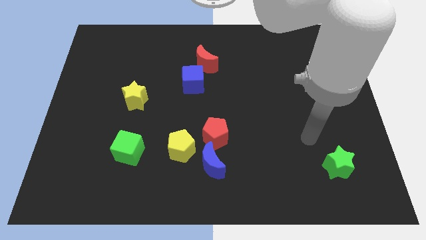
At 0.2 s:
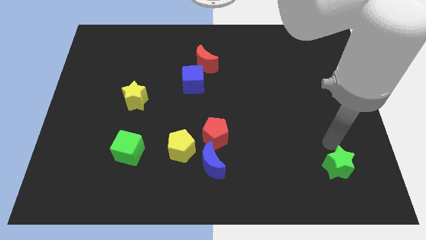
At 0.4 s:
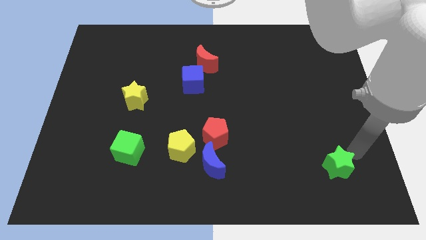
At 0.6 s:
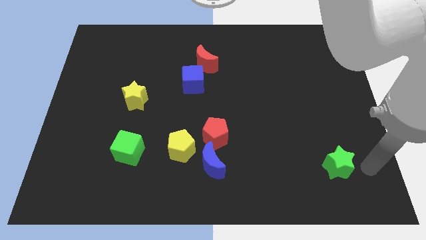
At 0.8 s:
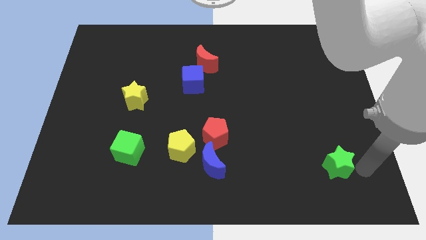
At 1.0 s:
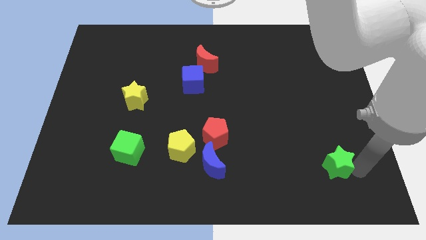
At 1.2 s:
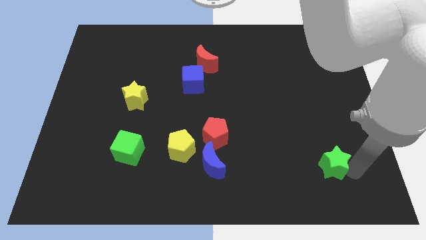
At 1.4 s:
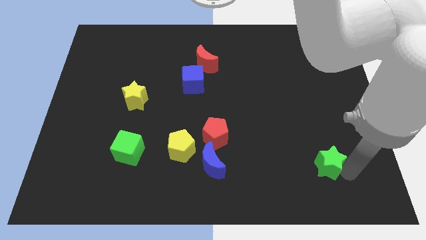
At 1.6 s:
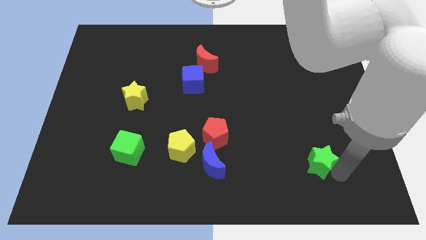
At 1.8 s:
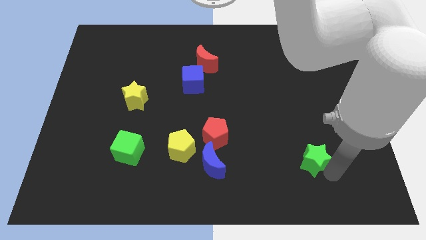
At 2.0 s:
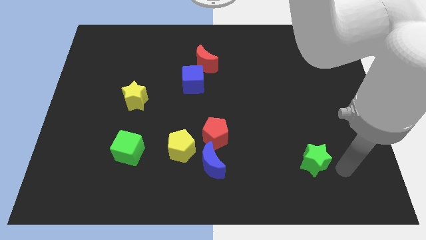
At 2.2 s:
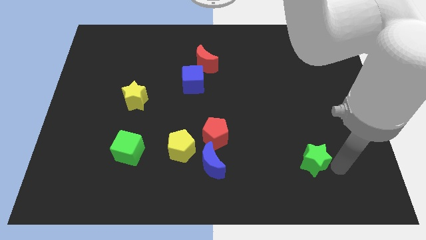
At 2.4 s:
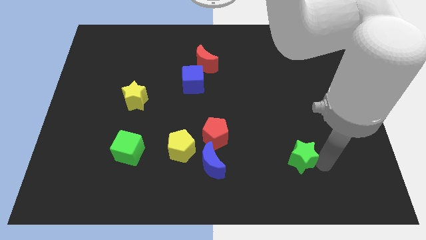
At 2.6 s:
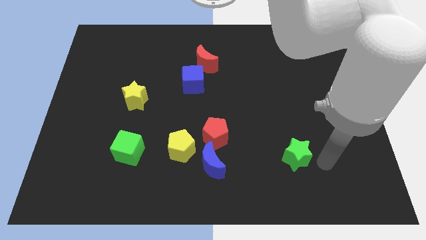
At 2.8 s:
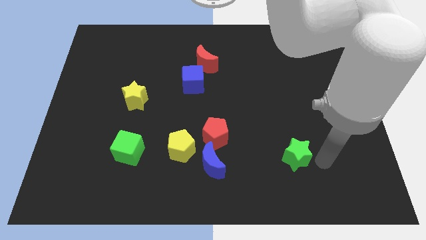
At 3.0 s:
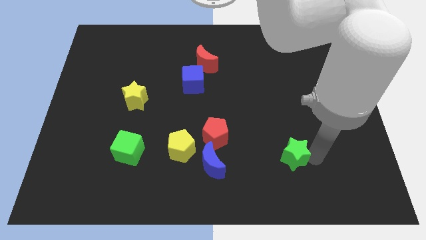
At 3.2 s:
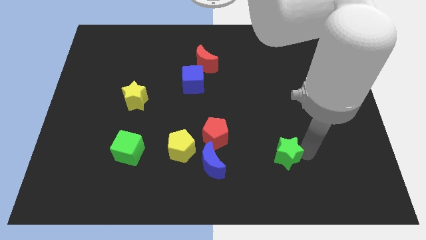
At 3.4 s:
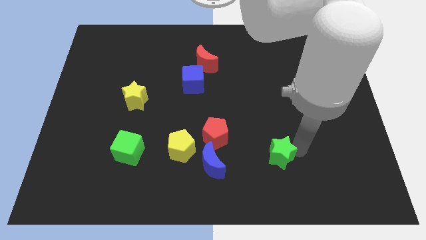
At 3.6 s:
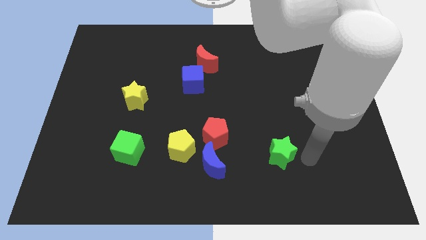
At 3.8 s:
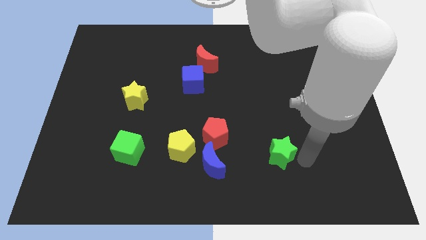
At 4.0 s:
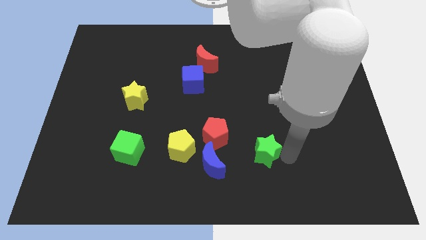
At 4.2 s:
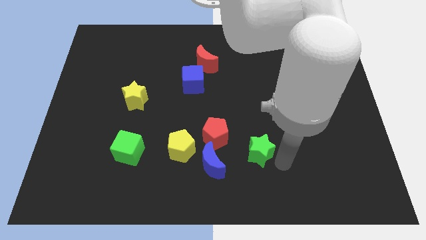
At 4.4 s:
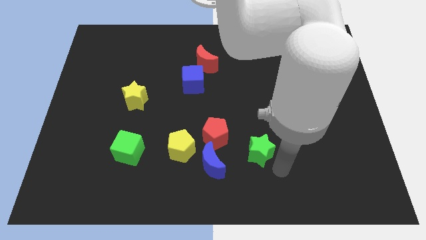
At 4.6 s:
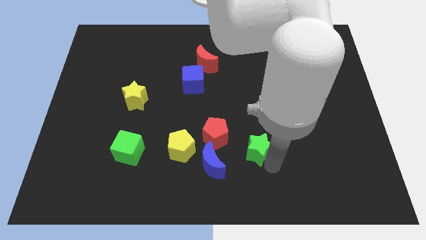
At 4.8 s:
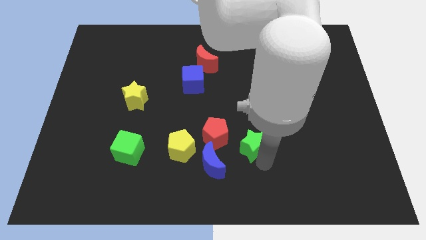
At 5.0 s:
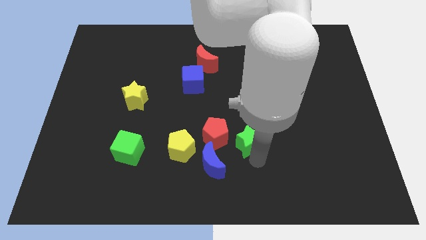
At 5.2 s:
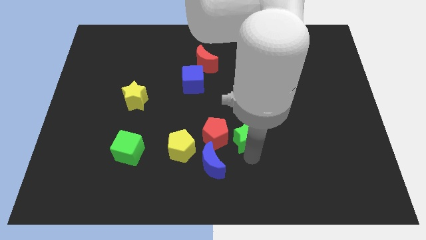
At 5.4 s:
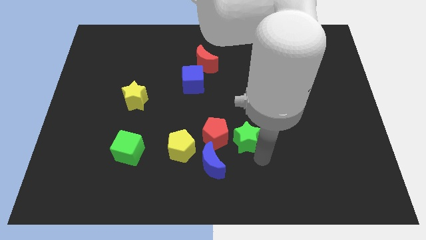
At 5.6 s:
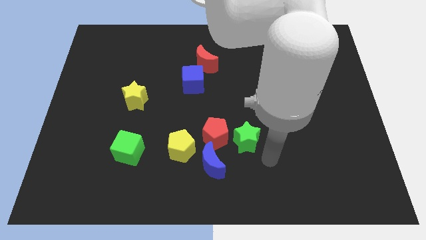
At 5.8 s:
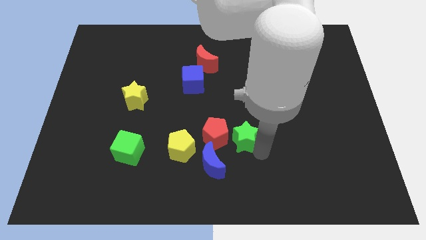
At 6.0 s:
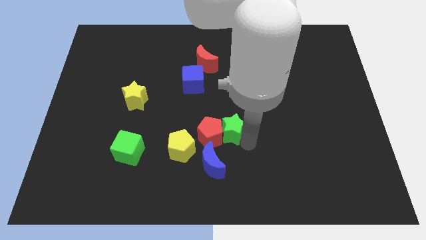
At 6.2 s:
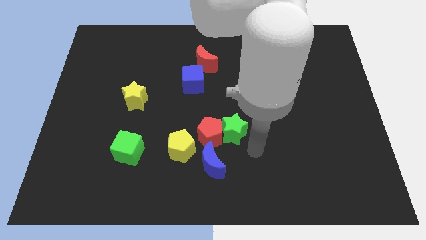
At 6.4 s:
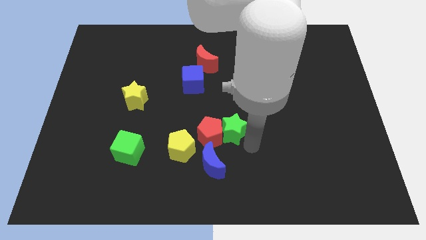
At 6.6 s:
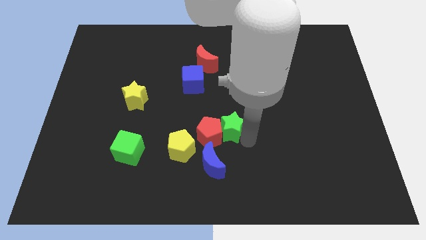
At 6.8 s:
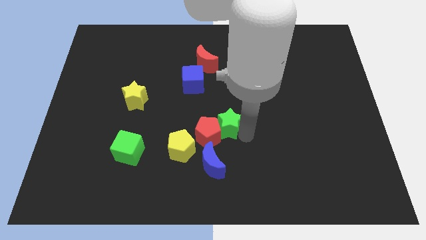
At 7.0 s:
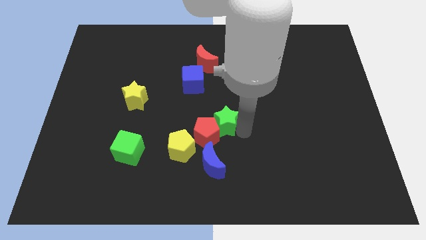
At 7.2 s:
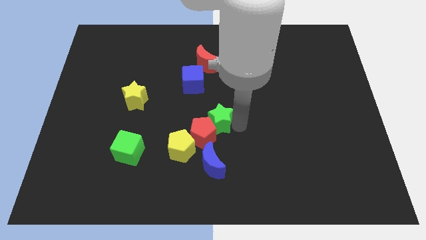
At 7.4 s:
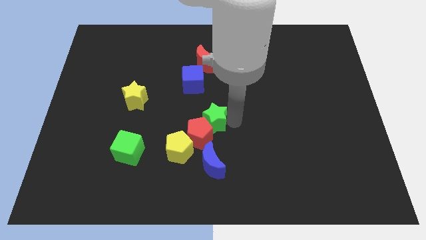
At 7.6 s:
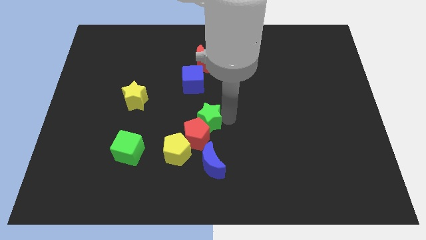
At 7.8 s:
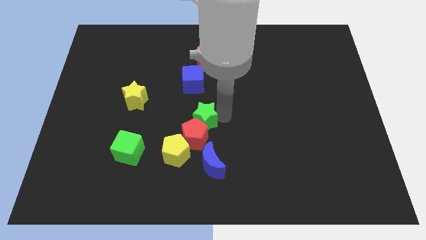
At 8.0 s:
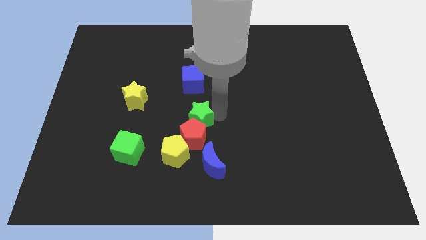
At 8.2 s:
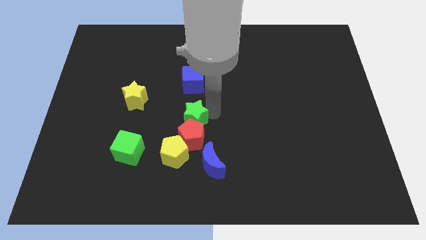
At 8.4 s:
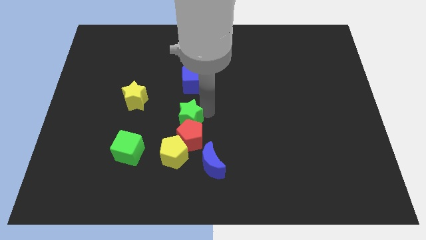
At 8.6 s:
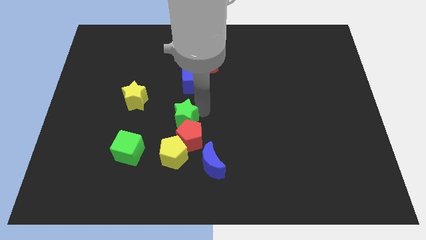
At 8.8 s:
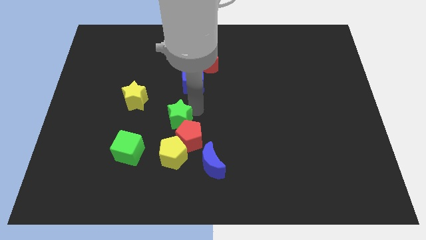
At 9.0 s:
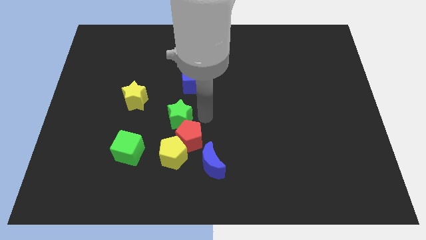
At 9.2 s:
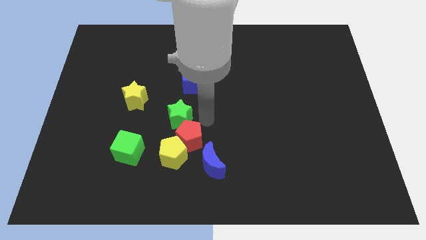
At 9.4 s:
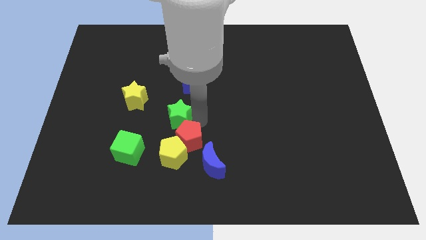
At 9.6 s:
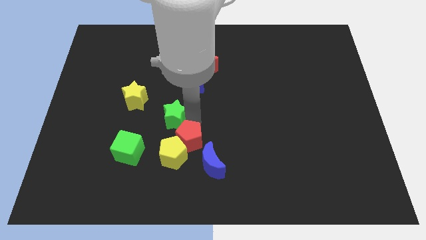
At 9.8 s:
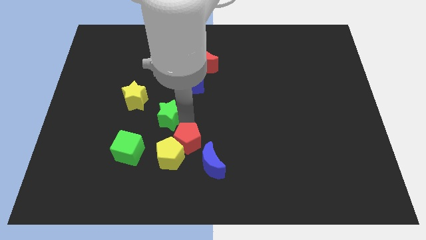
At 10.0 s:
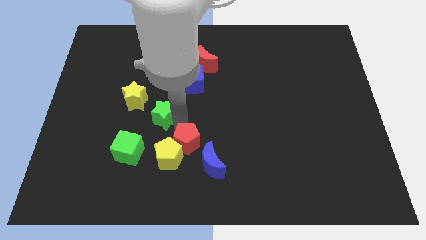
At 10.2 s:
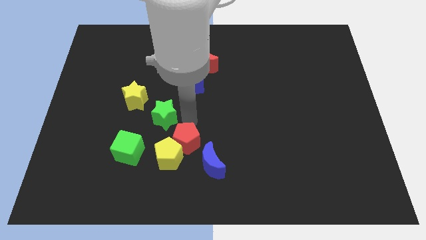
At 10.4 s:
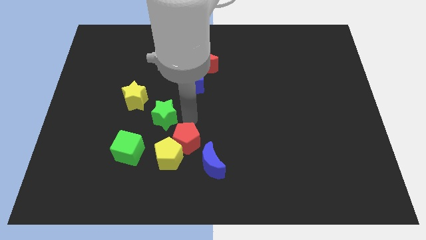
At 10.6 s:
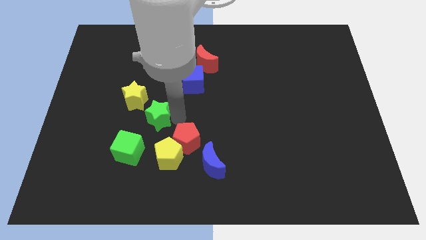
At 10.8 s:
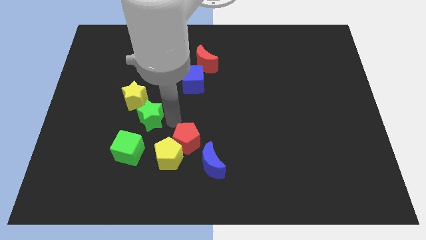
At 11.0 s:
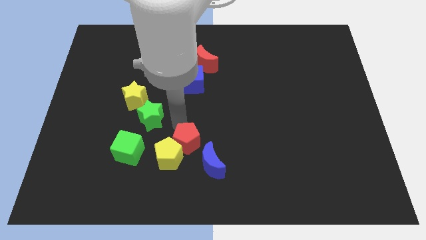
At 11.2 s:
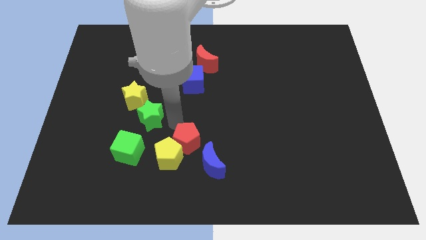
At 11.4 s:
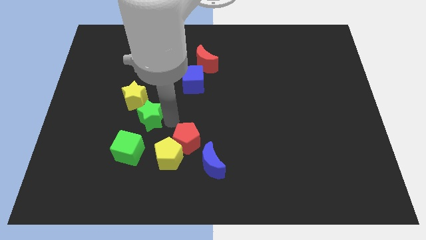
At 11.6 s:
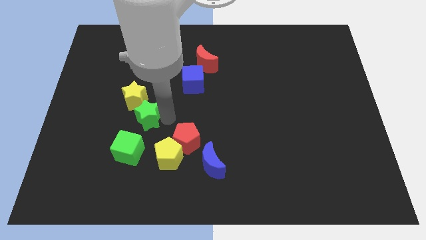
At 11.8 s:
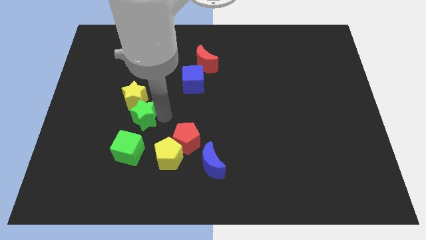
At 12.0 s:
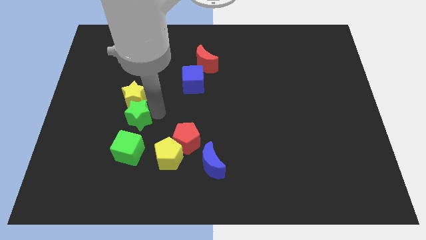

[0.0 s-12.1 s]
push the green star to the bottom left side of the yellow star
